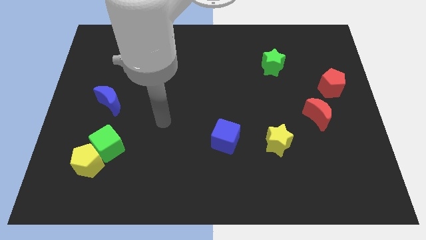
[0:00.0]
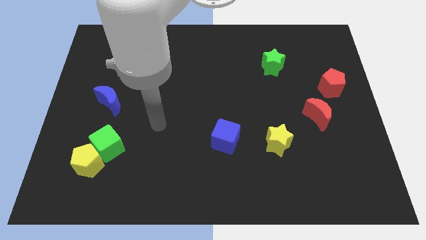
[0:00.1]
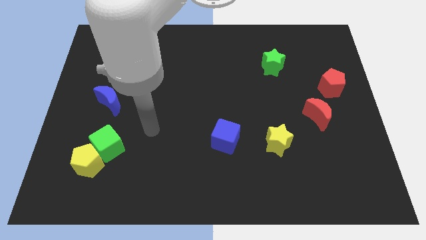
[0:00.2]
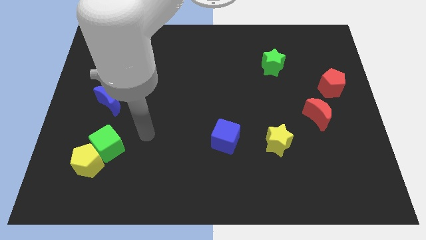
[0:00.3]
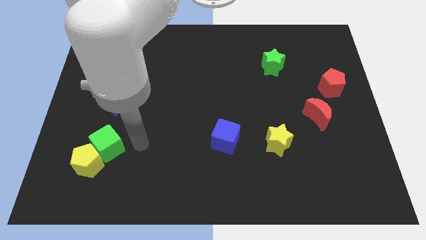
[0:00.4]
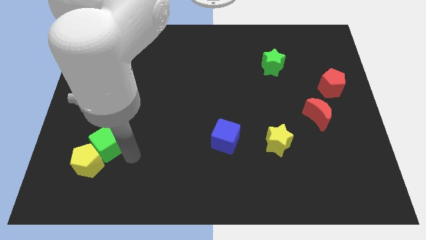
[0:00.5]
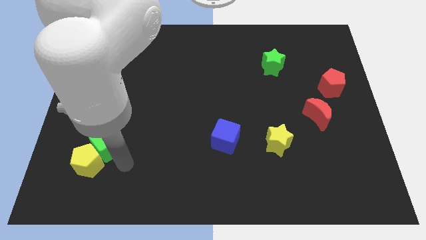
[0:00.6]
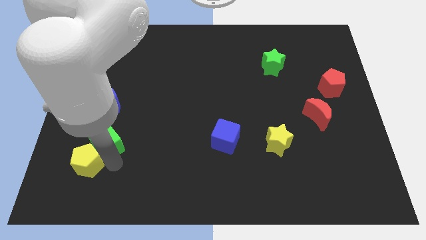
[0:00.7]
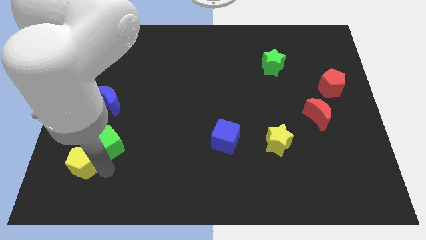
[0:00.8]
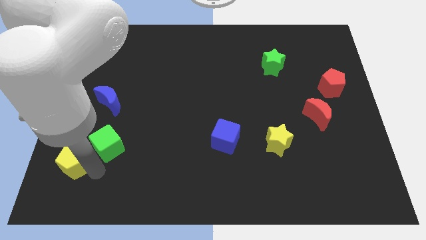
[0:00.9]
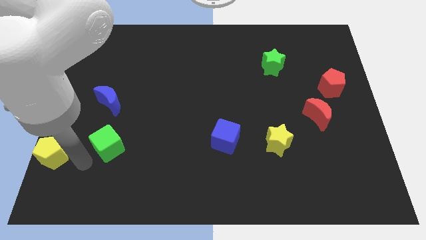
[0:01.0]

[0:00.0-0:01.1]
move the green cube away from the yellow pentagon

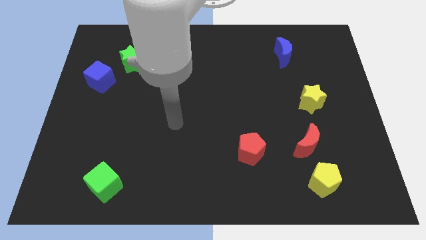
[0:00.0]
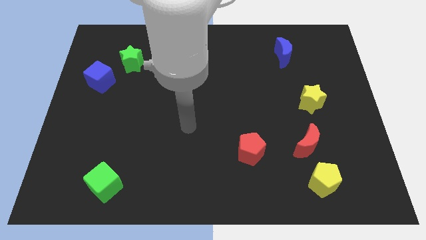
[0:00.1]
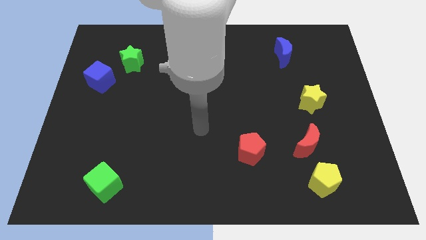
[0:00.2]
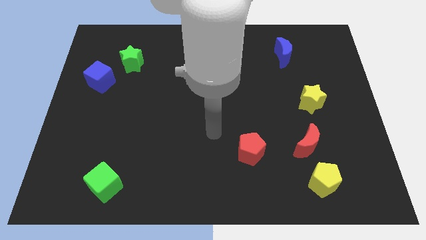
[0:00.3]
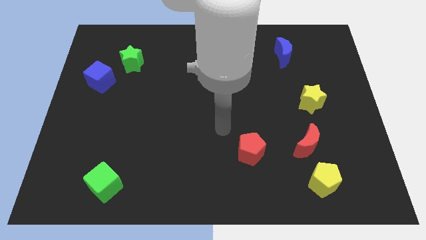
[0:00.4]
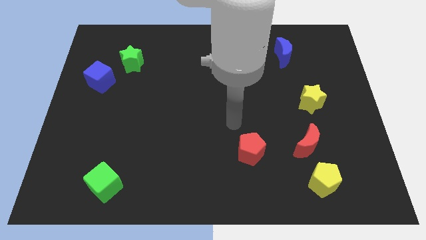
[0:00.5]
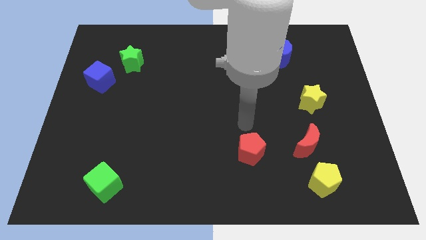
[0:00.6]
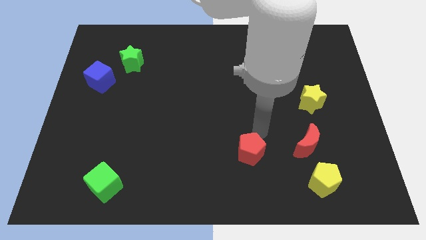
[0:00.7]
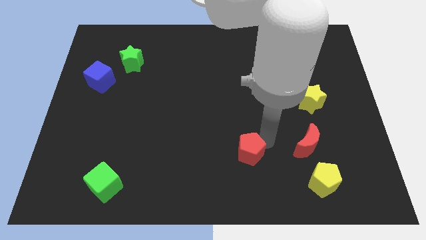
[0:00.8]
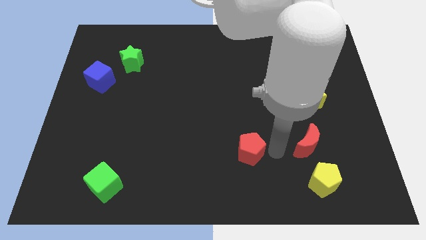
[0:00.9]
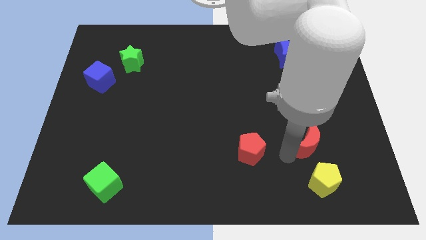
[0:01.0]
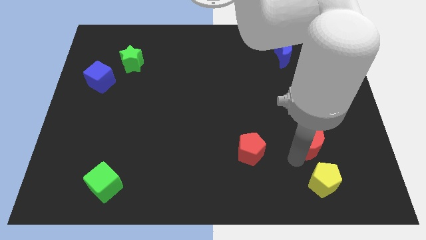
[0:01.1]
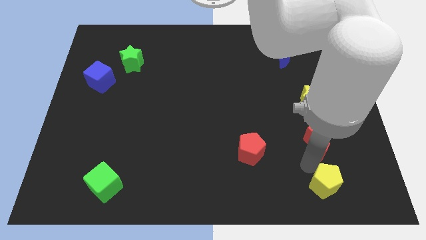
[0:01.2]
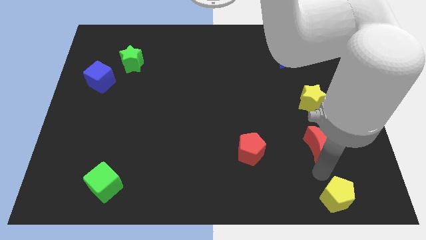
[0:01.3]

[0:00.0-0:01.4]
move the red moon away from the yellow pentagon

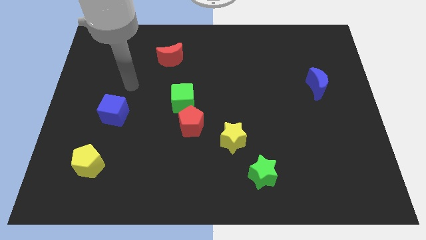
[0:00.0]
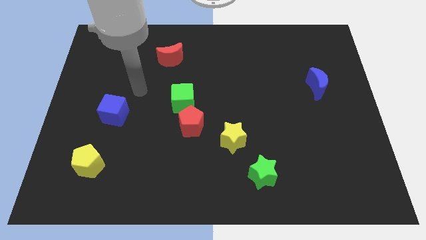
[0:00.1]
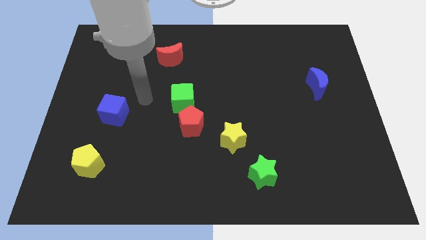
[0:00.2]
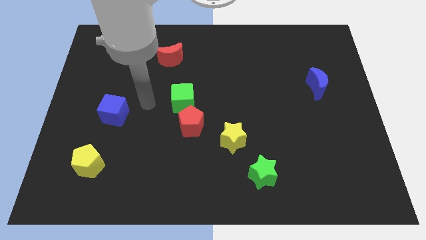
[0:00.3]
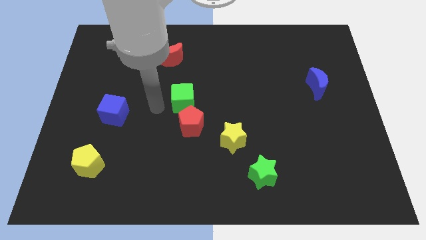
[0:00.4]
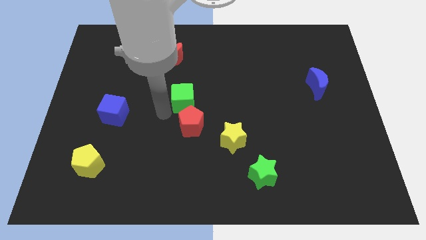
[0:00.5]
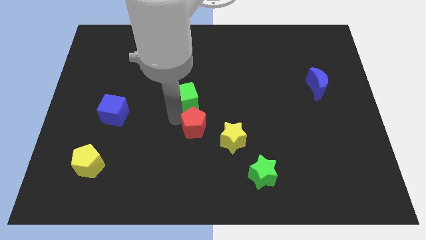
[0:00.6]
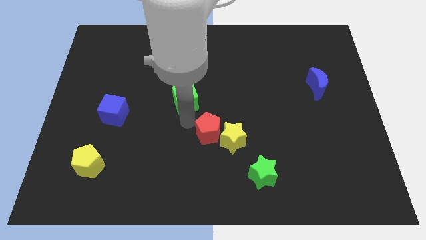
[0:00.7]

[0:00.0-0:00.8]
pull the green cube apart from the red pentagon

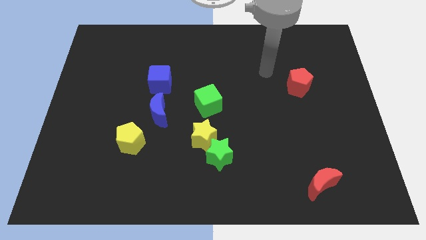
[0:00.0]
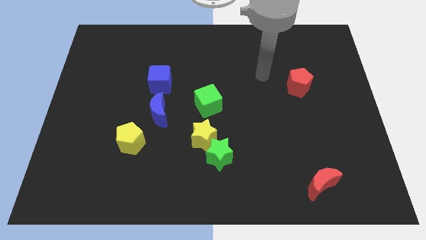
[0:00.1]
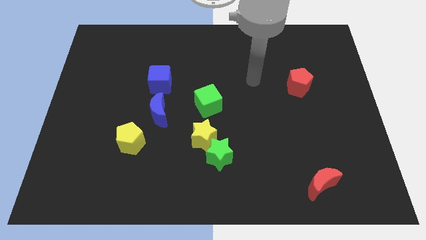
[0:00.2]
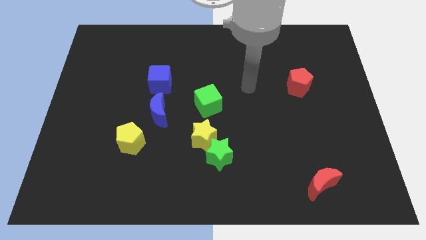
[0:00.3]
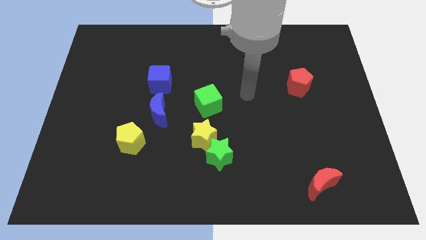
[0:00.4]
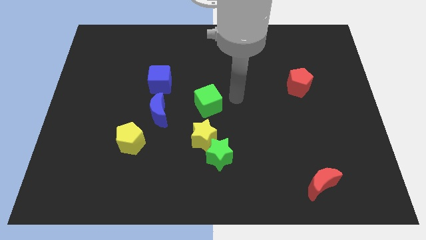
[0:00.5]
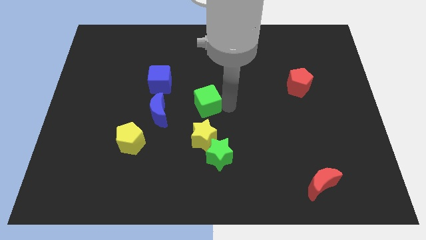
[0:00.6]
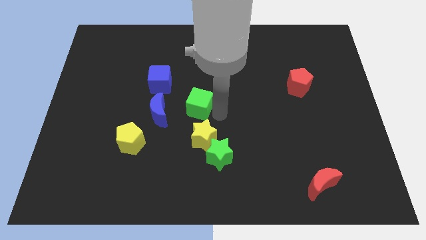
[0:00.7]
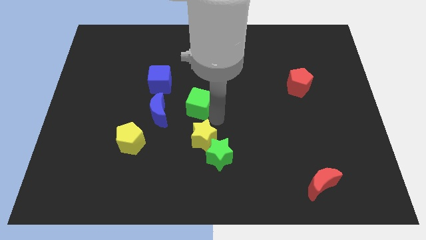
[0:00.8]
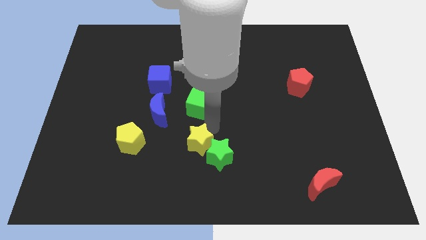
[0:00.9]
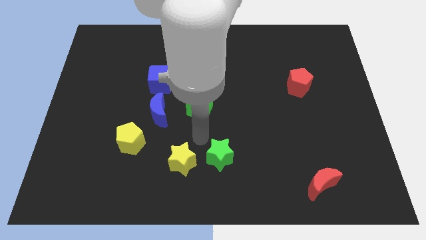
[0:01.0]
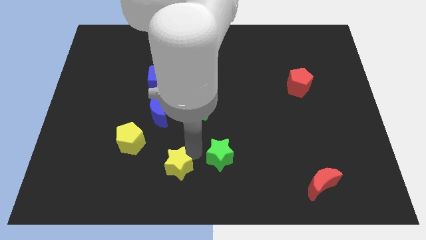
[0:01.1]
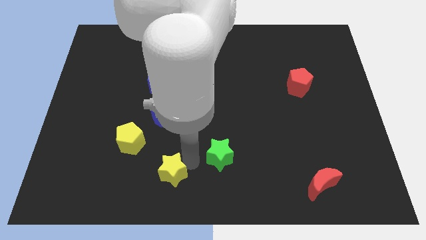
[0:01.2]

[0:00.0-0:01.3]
pull the green star apart from the yellow star

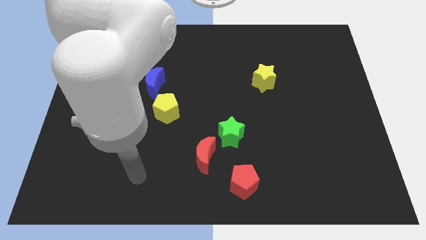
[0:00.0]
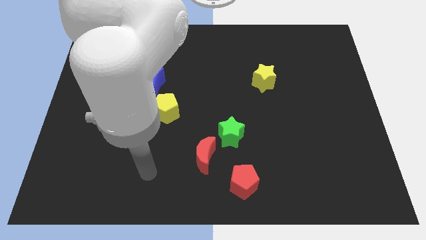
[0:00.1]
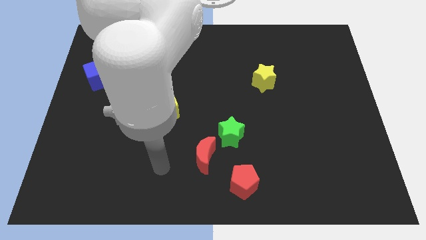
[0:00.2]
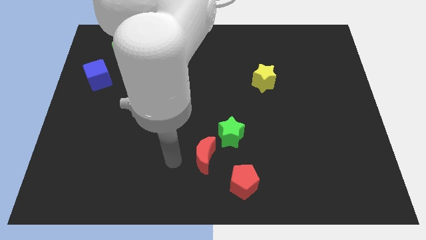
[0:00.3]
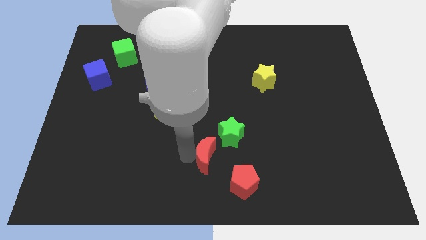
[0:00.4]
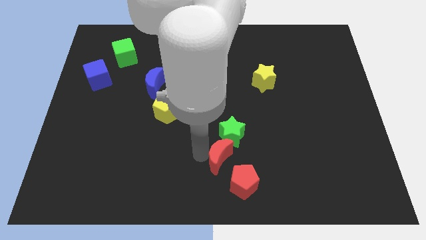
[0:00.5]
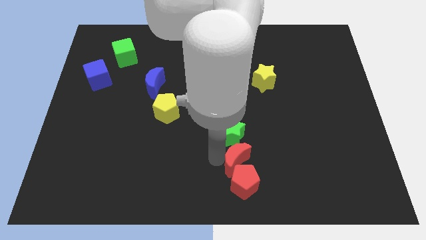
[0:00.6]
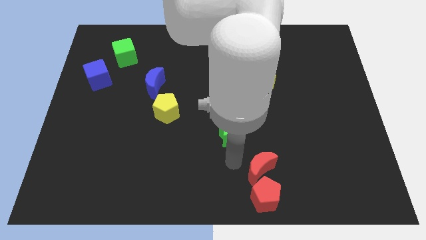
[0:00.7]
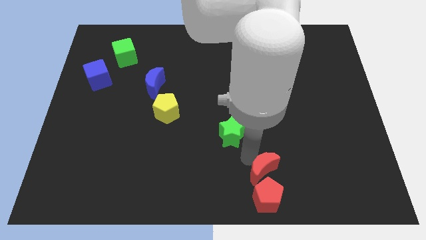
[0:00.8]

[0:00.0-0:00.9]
separate the green star from the red moon

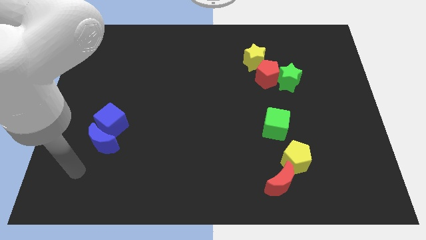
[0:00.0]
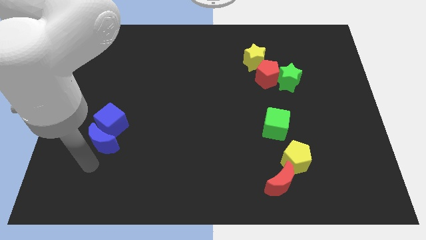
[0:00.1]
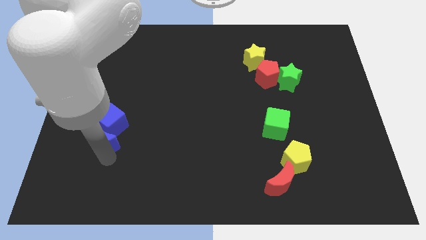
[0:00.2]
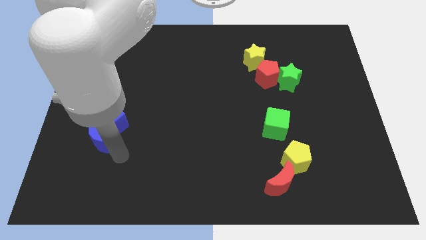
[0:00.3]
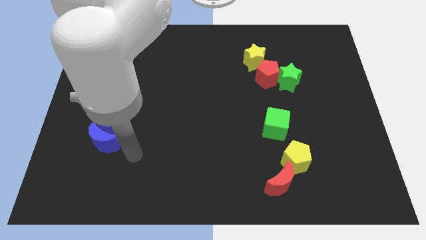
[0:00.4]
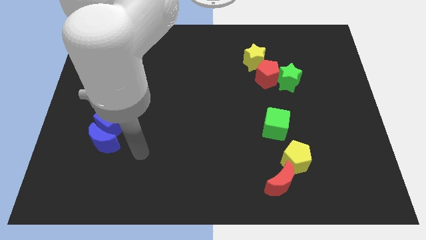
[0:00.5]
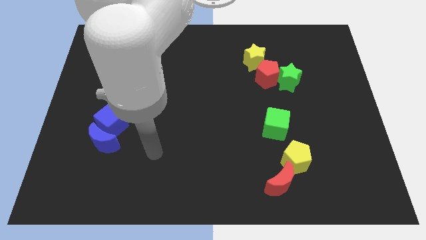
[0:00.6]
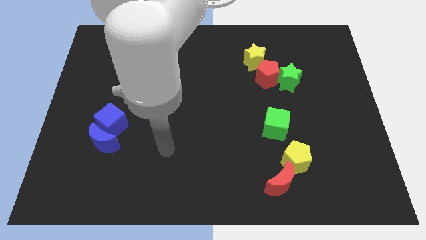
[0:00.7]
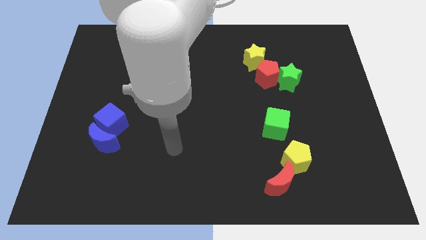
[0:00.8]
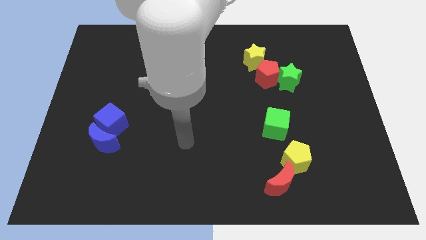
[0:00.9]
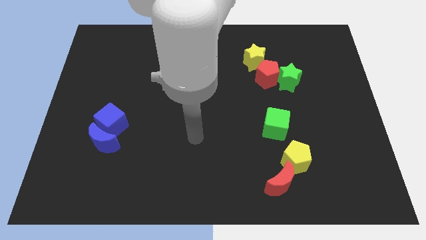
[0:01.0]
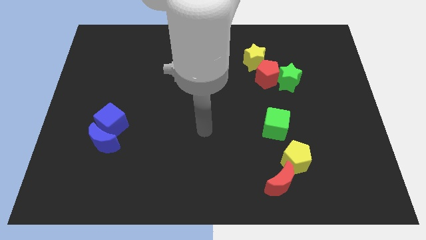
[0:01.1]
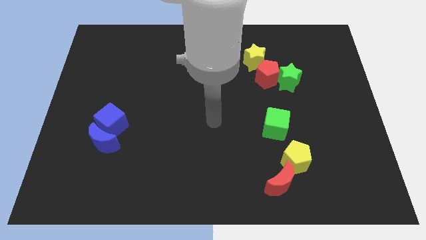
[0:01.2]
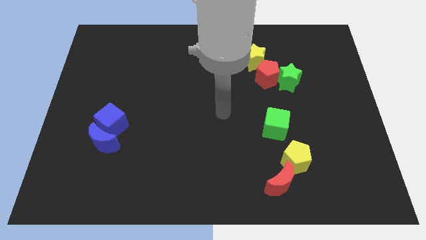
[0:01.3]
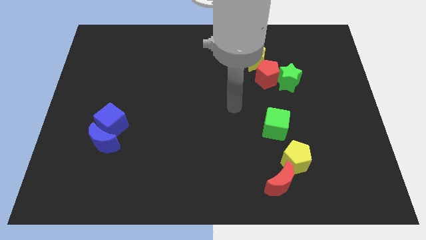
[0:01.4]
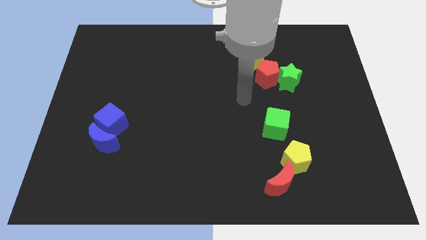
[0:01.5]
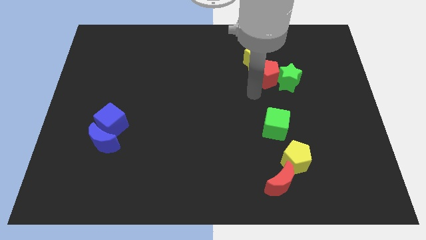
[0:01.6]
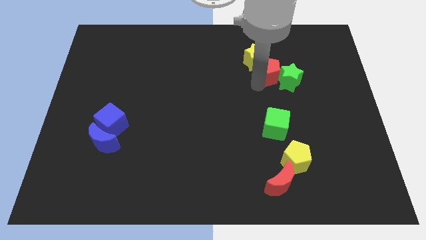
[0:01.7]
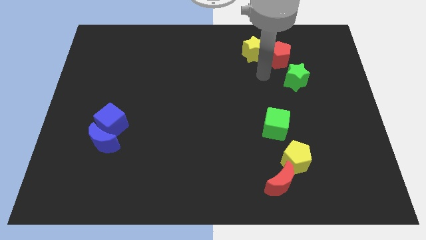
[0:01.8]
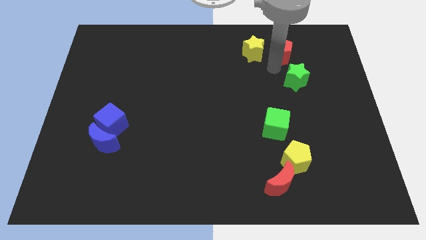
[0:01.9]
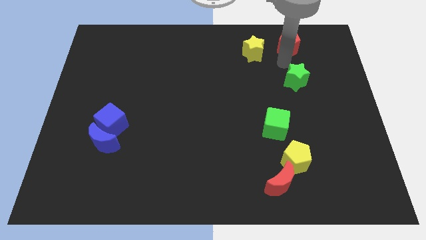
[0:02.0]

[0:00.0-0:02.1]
separate the green star from the red pentagon

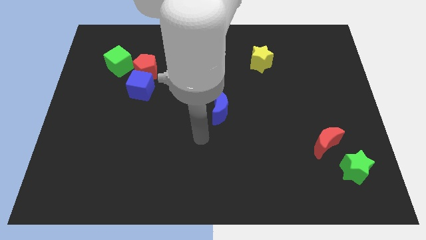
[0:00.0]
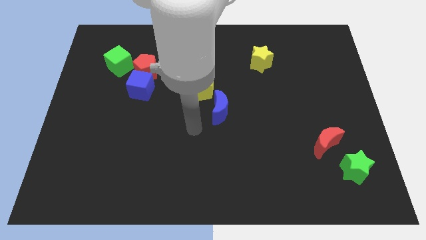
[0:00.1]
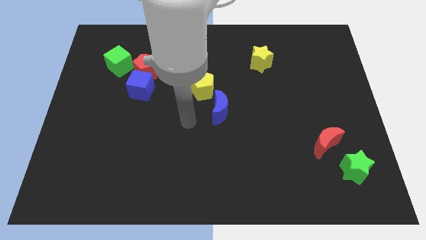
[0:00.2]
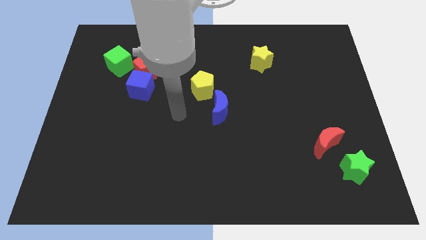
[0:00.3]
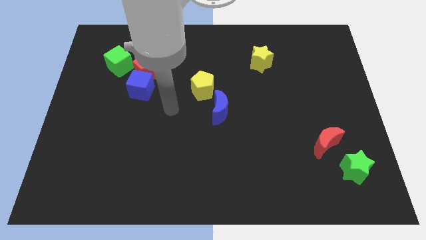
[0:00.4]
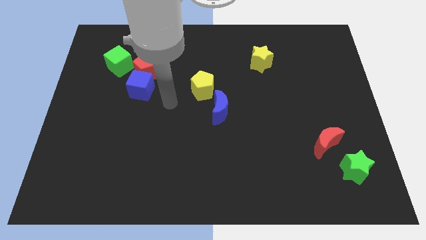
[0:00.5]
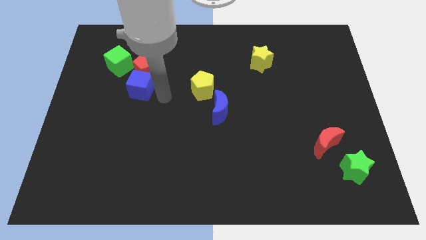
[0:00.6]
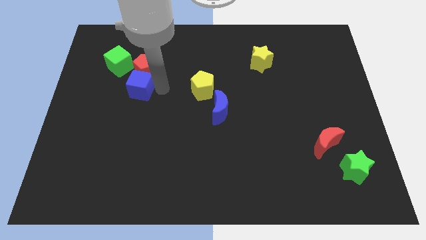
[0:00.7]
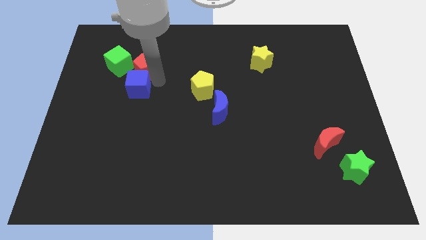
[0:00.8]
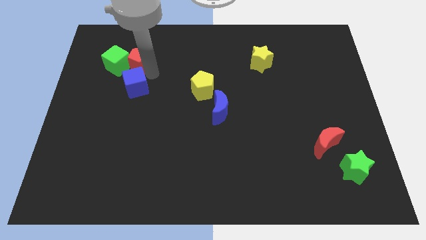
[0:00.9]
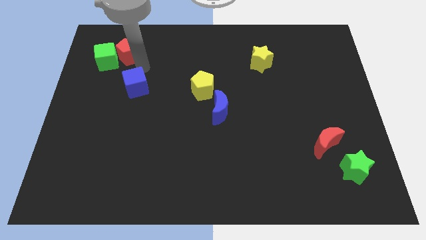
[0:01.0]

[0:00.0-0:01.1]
pull the blue cube apart from the red pentagon

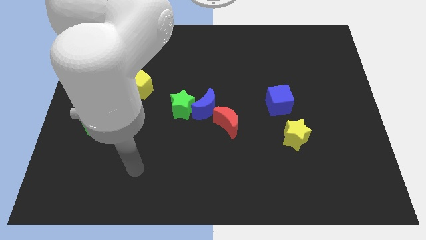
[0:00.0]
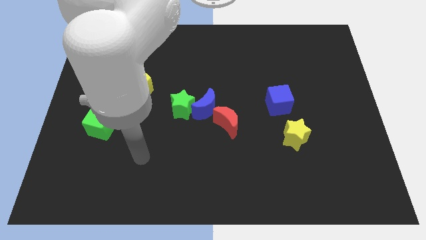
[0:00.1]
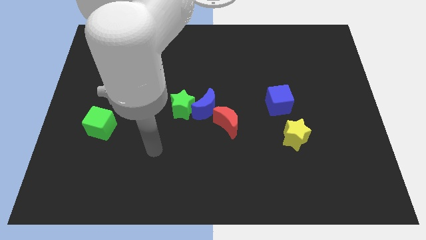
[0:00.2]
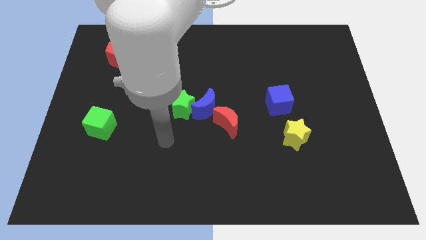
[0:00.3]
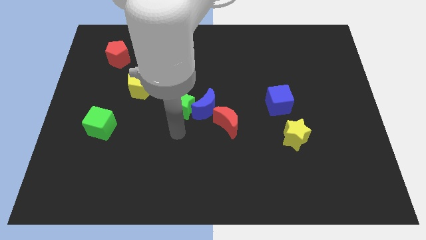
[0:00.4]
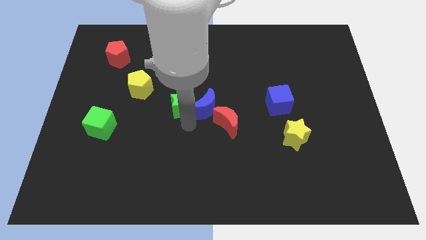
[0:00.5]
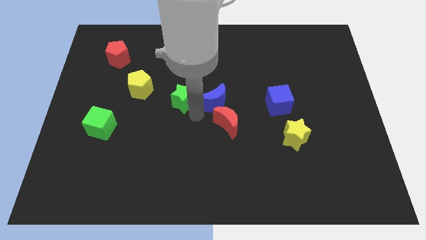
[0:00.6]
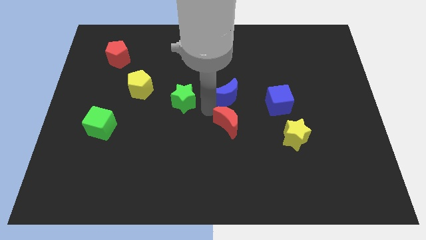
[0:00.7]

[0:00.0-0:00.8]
pull the green star apart from the blue moon
